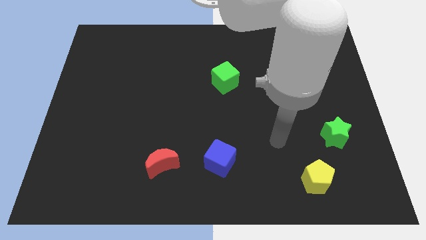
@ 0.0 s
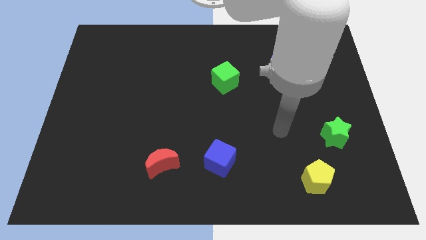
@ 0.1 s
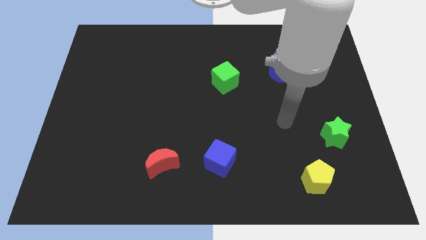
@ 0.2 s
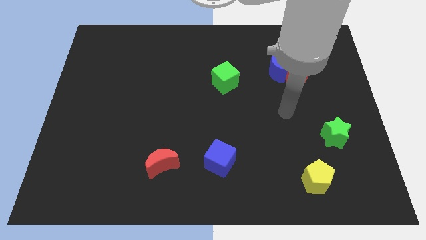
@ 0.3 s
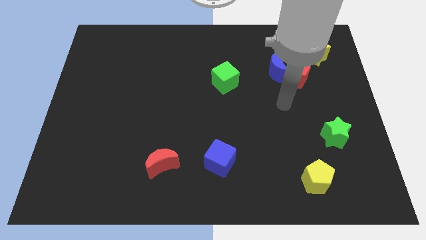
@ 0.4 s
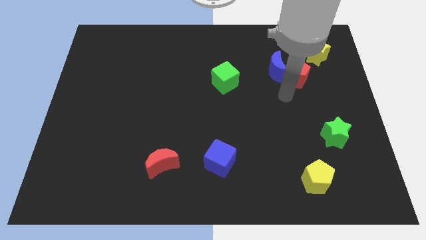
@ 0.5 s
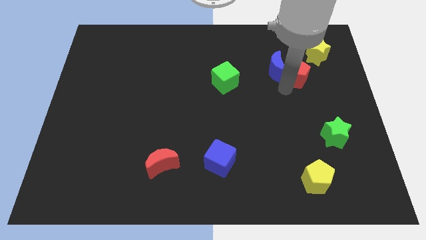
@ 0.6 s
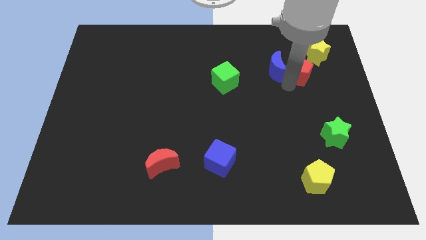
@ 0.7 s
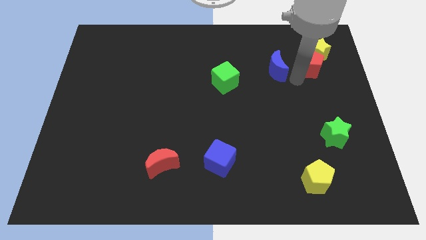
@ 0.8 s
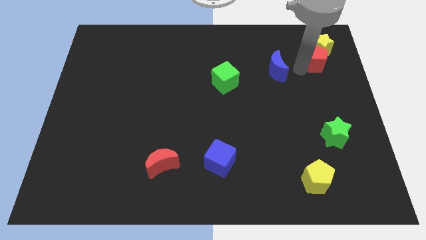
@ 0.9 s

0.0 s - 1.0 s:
separate the blue moon from the red pentagon

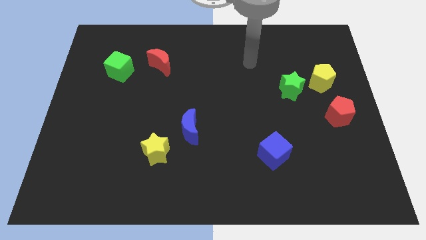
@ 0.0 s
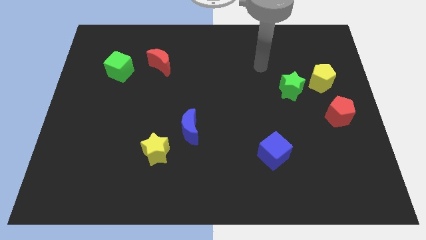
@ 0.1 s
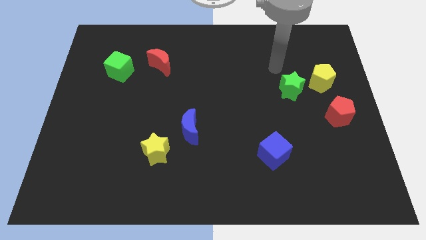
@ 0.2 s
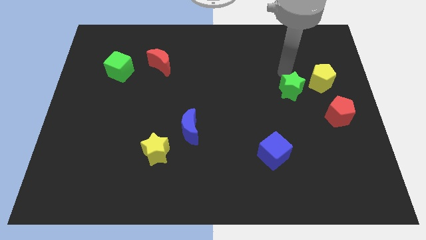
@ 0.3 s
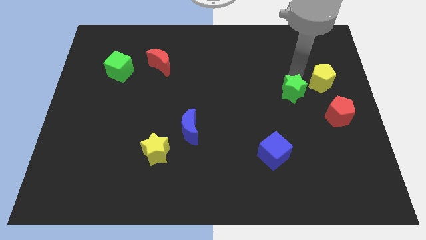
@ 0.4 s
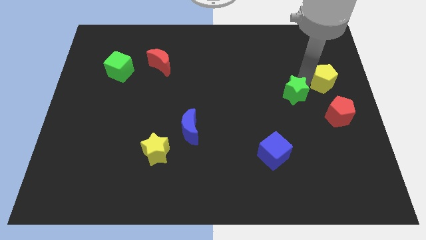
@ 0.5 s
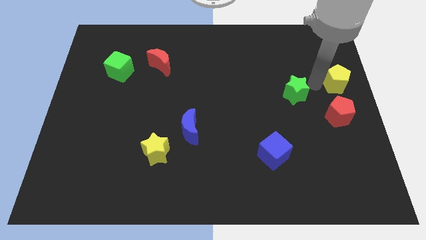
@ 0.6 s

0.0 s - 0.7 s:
separate the green star from the yellow pentagon

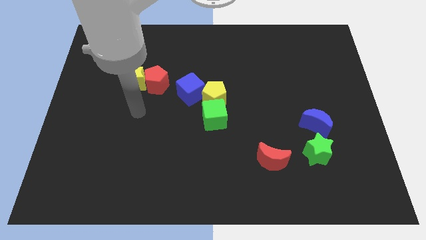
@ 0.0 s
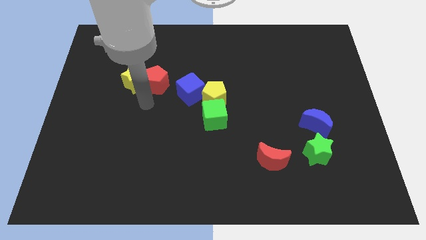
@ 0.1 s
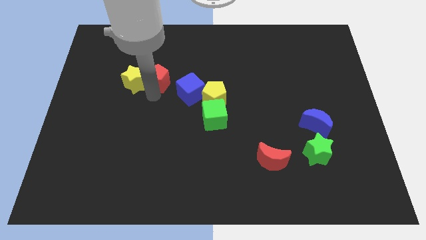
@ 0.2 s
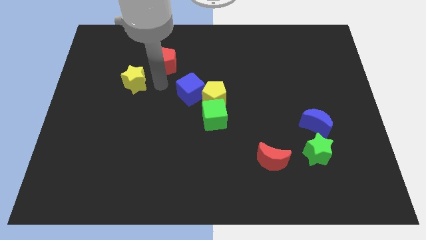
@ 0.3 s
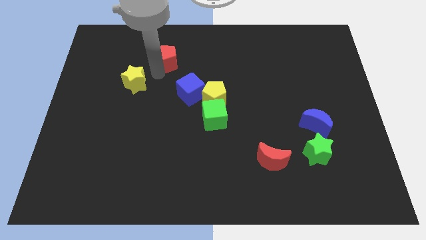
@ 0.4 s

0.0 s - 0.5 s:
separate the yellow star from the red pentagon

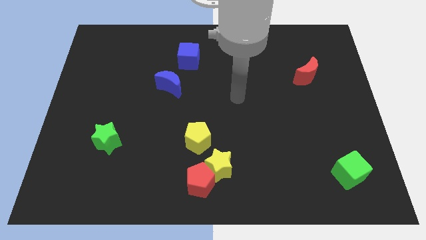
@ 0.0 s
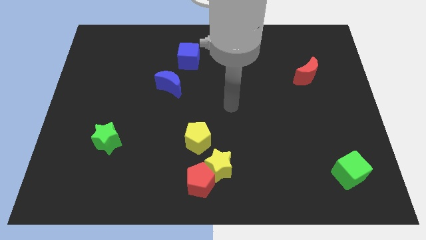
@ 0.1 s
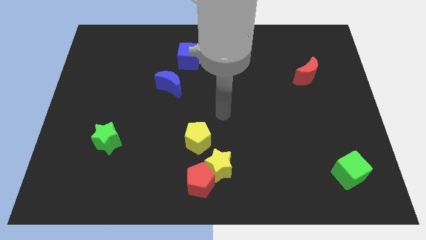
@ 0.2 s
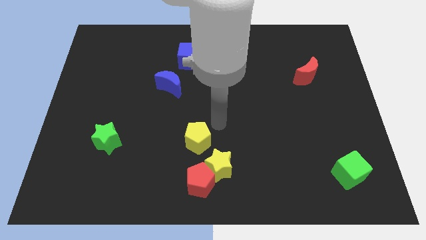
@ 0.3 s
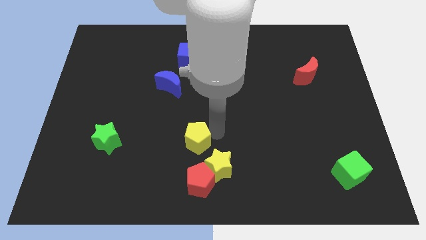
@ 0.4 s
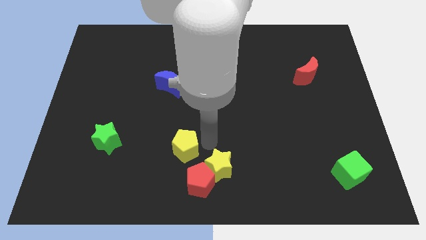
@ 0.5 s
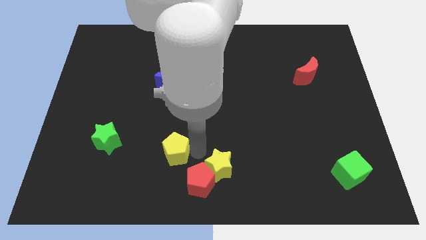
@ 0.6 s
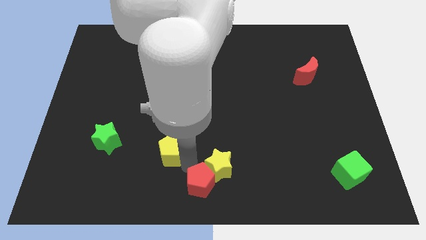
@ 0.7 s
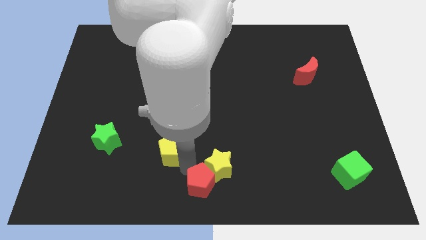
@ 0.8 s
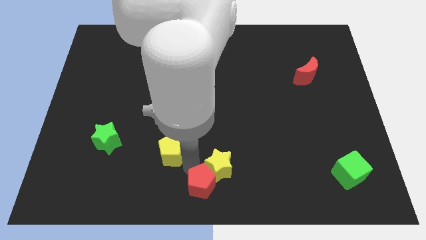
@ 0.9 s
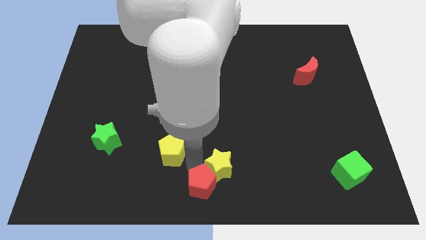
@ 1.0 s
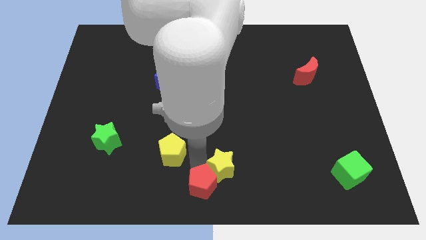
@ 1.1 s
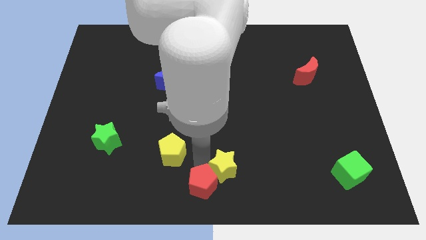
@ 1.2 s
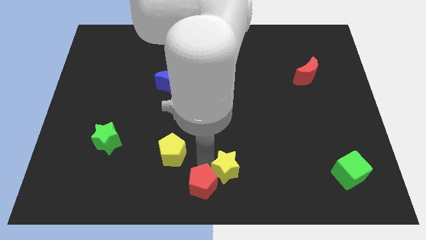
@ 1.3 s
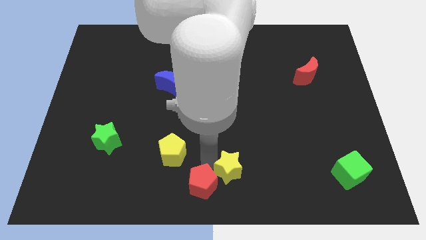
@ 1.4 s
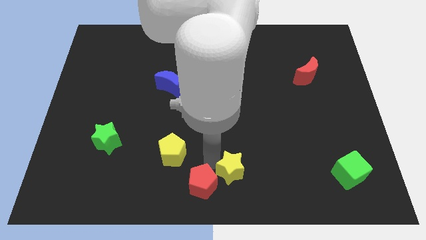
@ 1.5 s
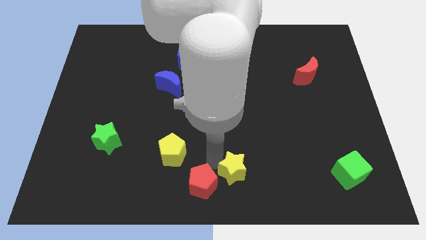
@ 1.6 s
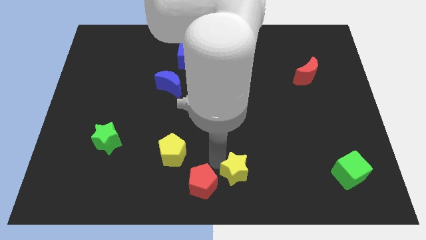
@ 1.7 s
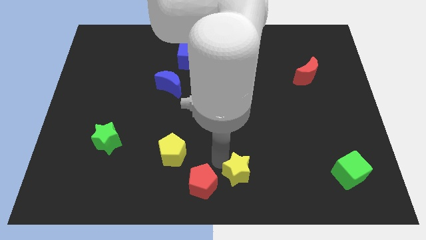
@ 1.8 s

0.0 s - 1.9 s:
pull the yellow star apart from the red pentagon and yellow pentagon

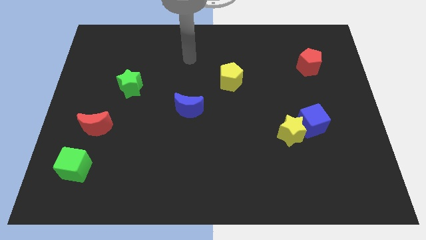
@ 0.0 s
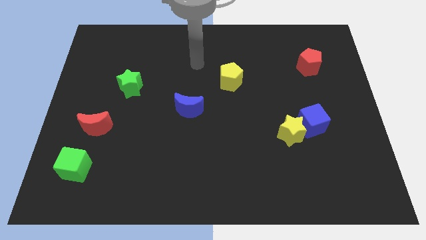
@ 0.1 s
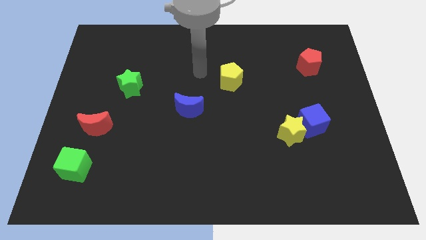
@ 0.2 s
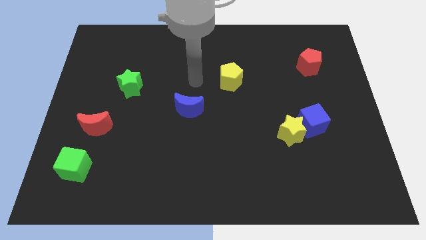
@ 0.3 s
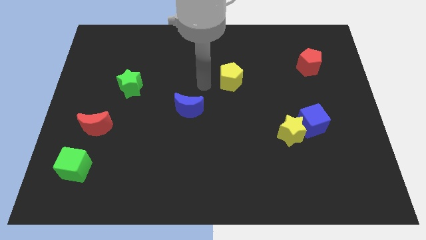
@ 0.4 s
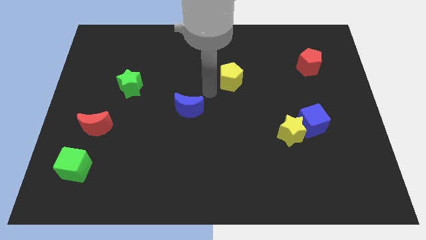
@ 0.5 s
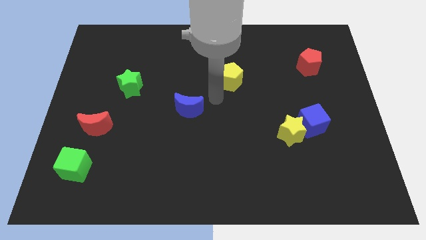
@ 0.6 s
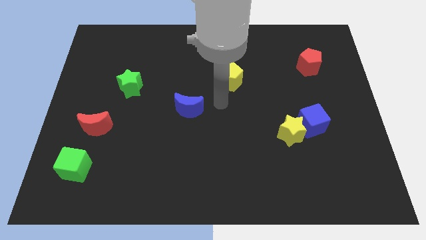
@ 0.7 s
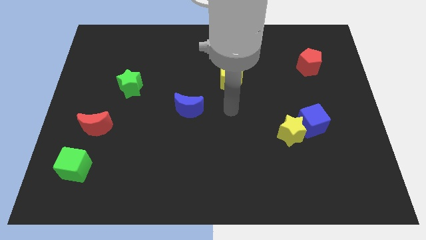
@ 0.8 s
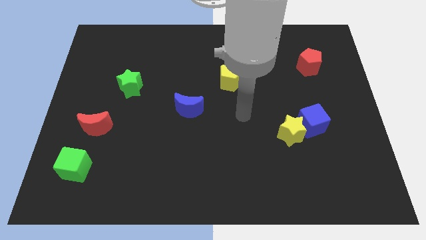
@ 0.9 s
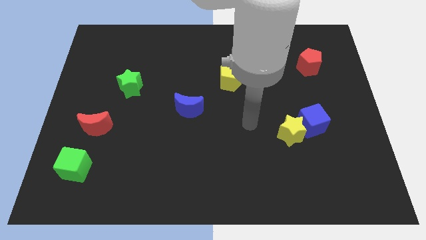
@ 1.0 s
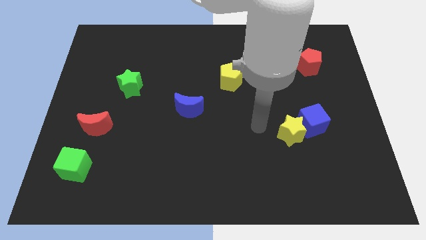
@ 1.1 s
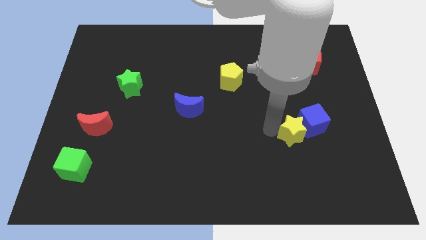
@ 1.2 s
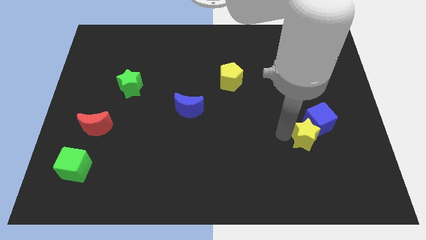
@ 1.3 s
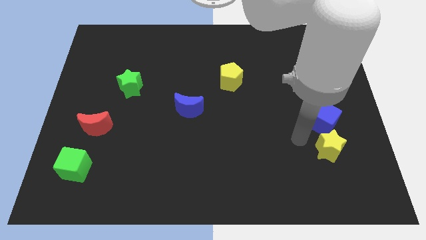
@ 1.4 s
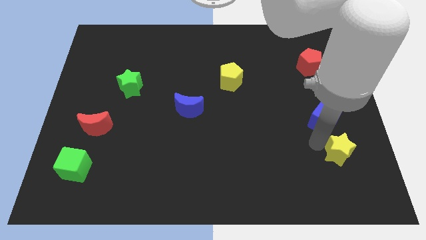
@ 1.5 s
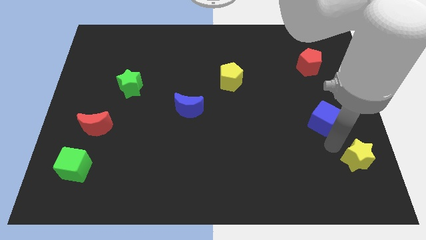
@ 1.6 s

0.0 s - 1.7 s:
pull the blue cube apart from the yellow star

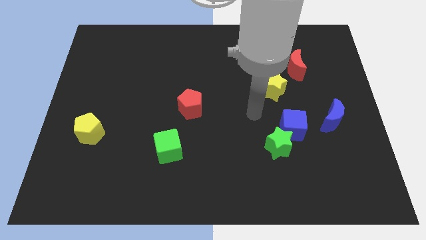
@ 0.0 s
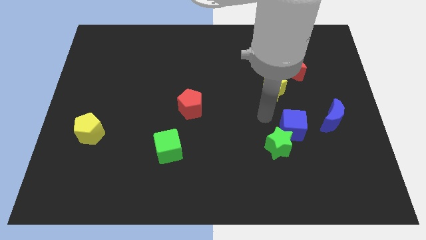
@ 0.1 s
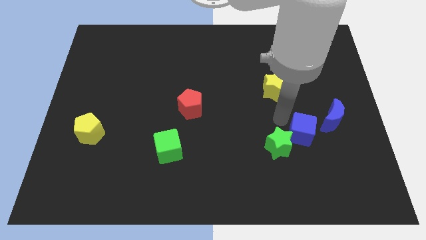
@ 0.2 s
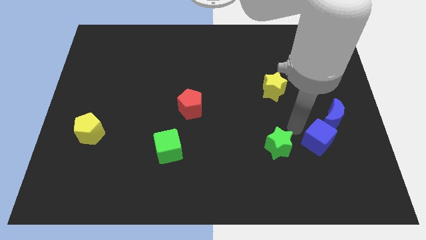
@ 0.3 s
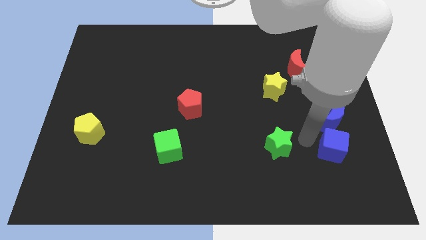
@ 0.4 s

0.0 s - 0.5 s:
separate the green star from the blue cube

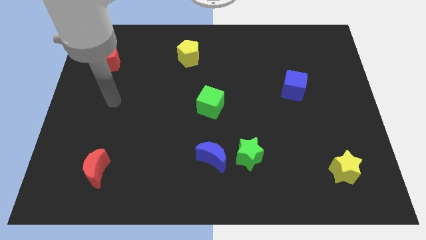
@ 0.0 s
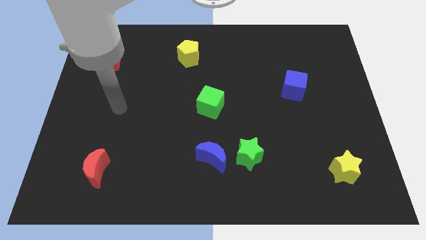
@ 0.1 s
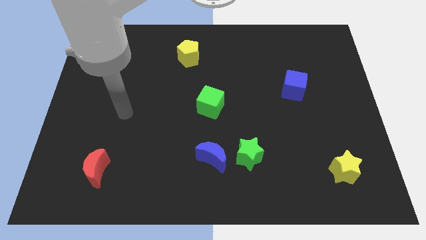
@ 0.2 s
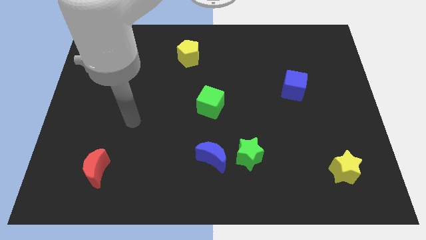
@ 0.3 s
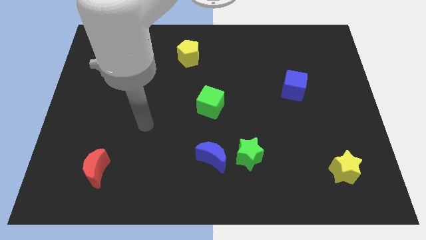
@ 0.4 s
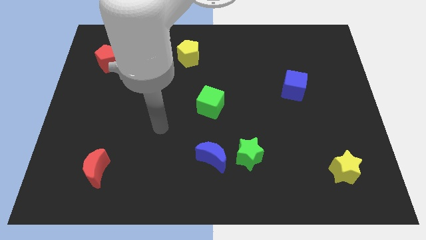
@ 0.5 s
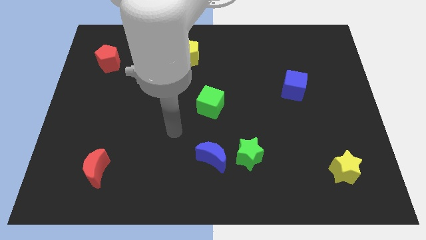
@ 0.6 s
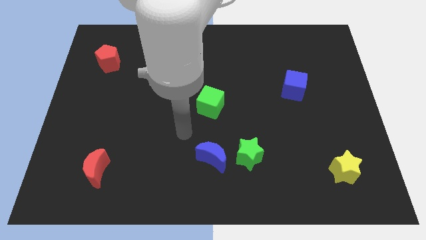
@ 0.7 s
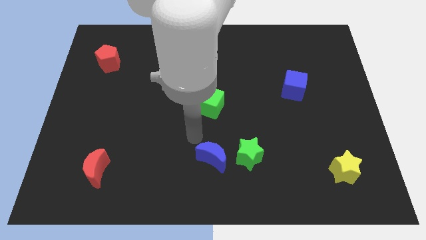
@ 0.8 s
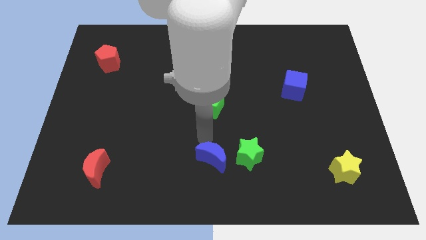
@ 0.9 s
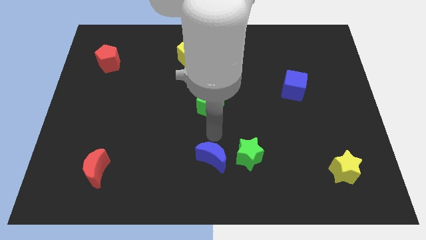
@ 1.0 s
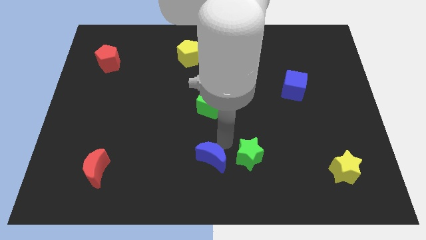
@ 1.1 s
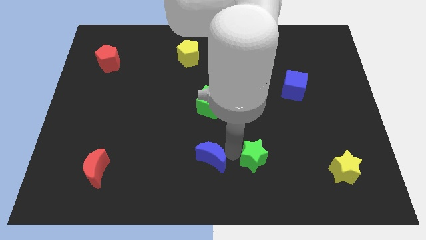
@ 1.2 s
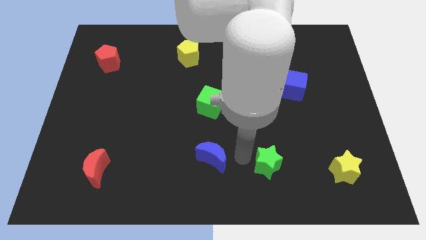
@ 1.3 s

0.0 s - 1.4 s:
pull the blue moon apart from the green star

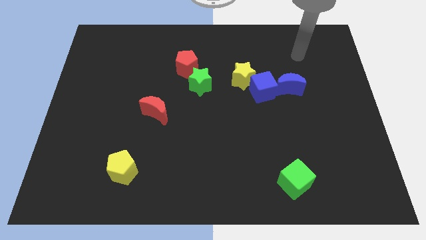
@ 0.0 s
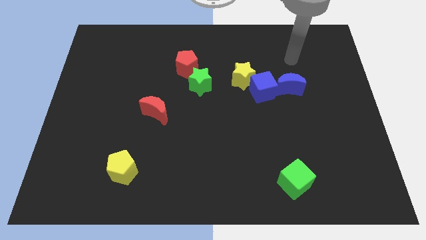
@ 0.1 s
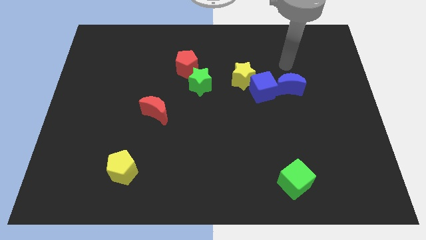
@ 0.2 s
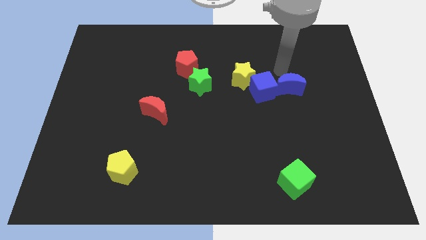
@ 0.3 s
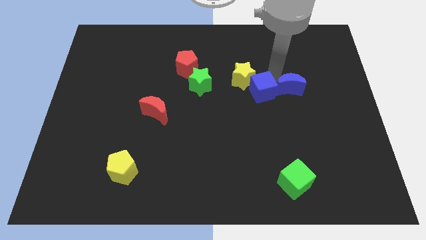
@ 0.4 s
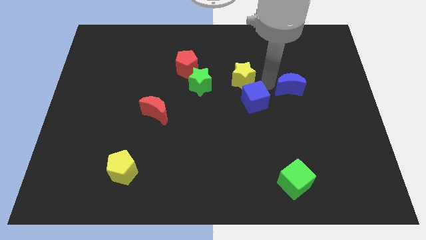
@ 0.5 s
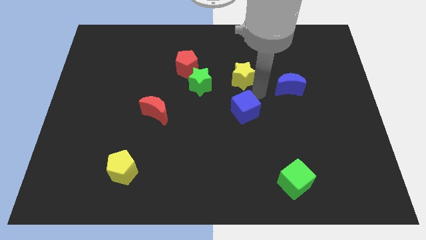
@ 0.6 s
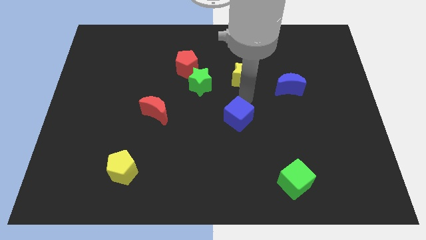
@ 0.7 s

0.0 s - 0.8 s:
pull the yellow star apart from the blue cube

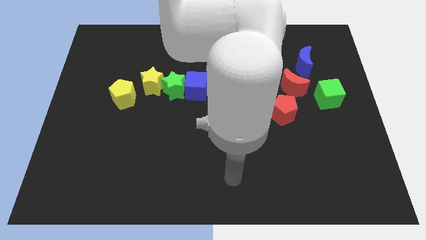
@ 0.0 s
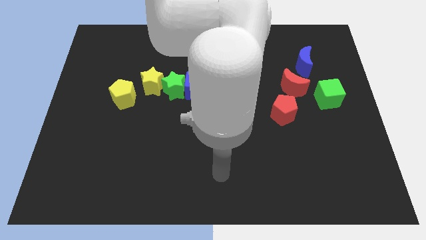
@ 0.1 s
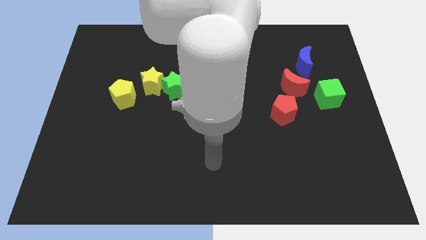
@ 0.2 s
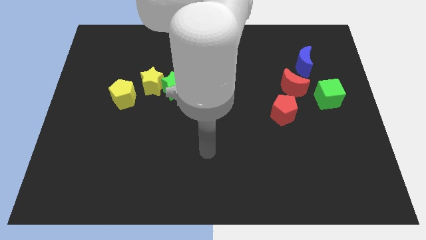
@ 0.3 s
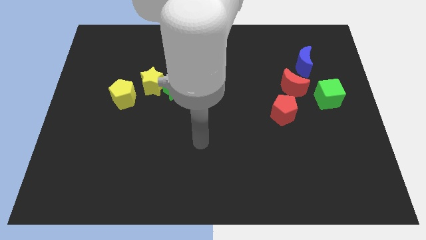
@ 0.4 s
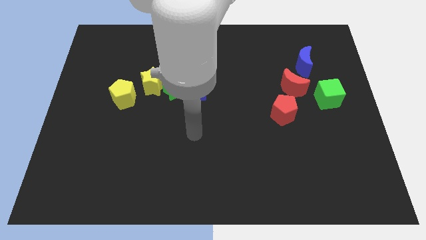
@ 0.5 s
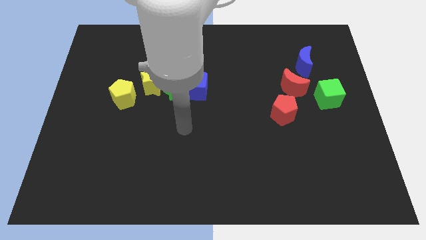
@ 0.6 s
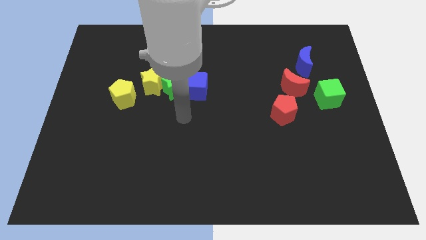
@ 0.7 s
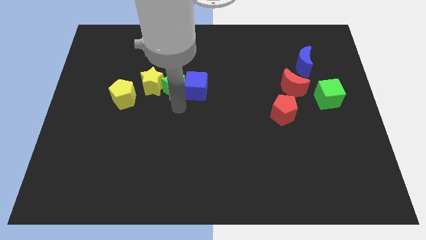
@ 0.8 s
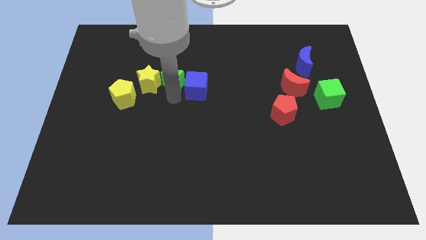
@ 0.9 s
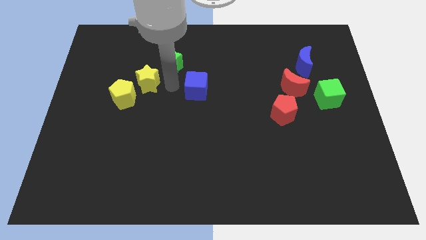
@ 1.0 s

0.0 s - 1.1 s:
move the blue cube away from the green star
